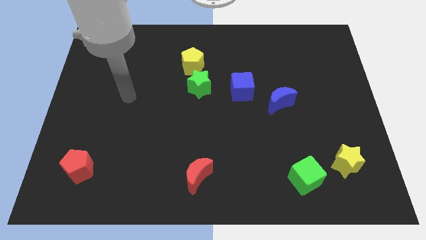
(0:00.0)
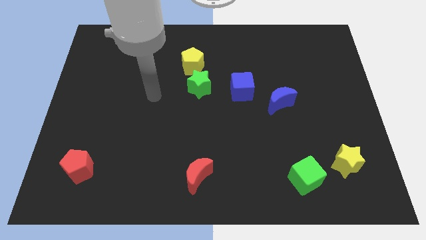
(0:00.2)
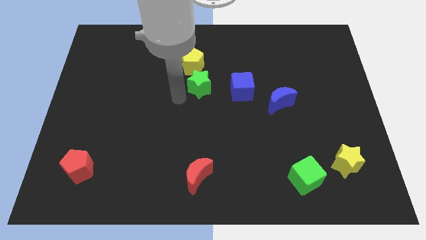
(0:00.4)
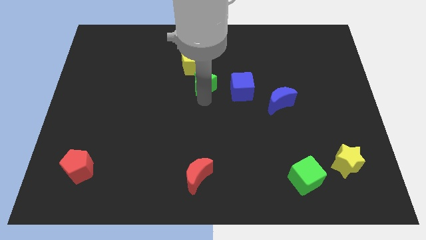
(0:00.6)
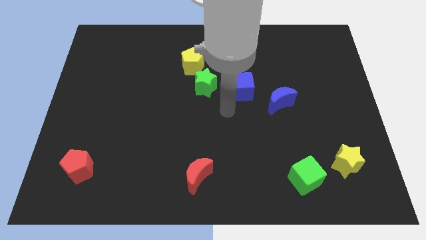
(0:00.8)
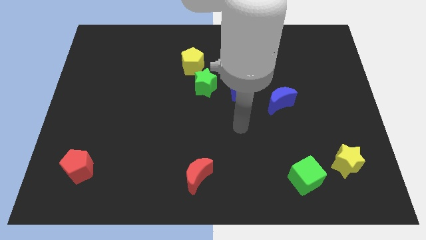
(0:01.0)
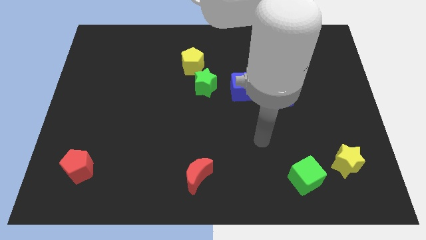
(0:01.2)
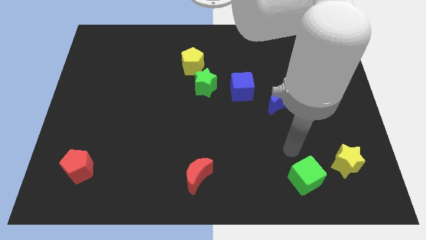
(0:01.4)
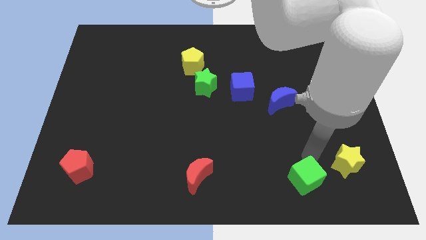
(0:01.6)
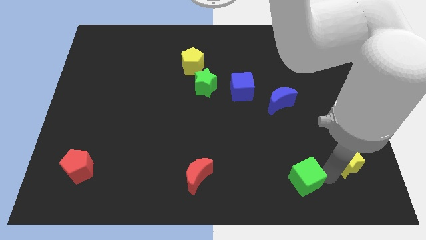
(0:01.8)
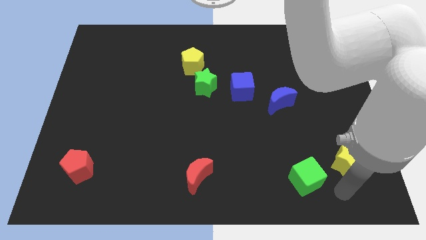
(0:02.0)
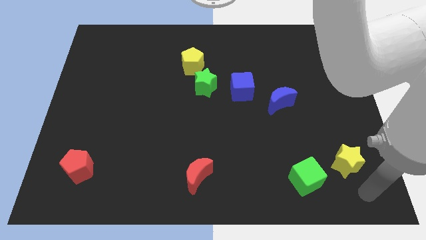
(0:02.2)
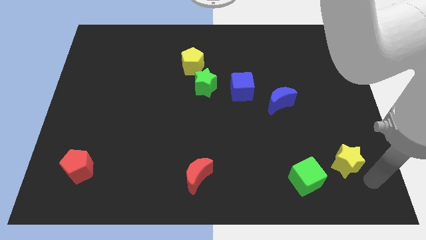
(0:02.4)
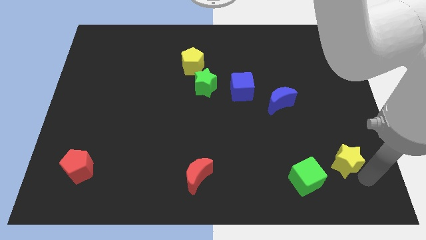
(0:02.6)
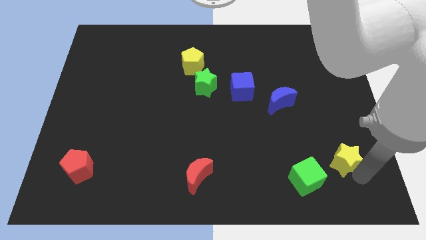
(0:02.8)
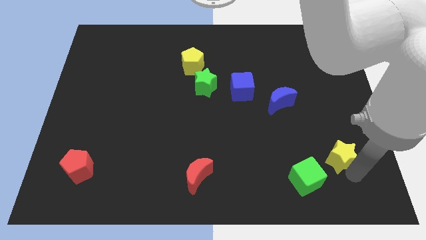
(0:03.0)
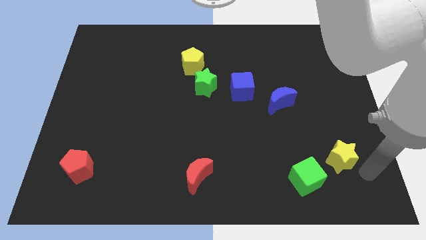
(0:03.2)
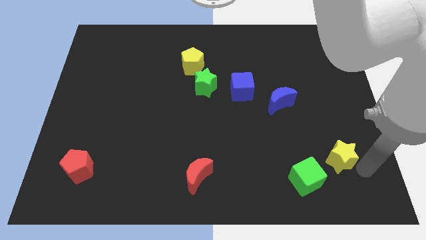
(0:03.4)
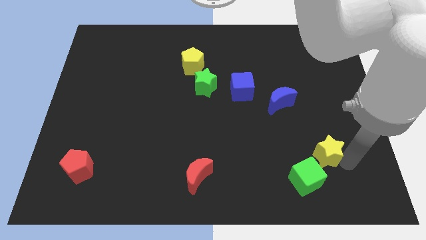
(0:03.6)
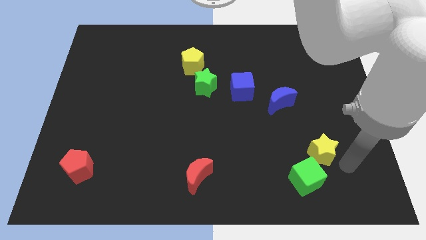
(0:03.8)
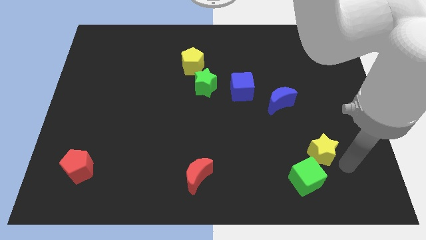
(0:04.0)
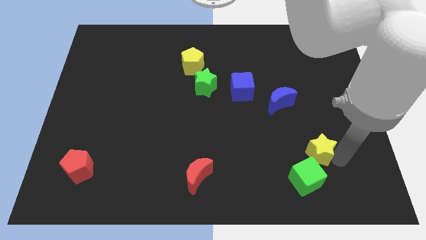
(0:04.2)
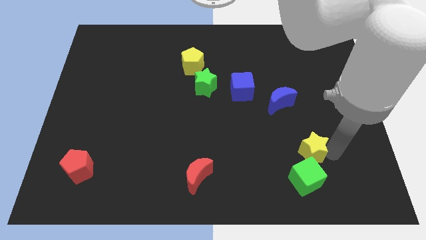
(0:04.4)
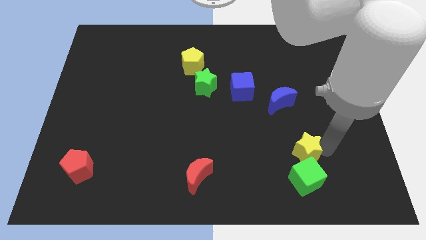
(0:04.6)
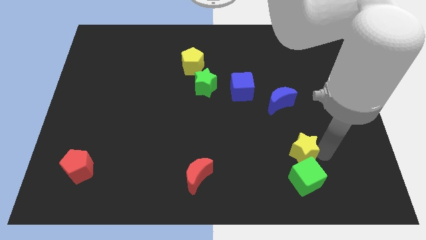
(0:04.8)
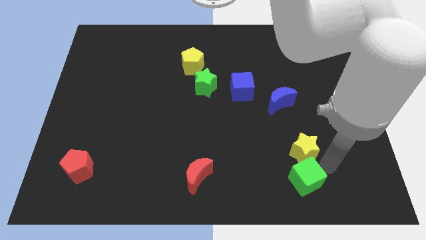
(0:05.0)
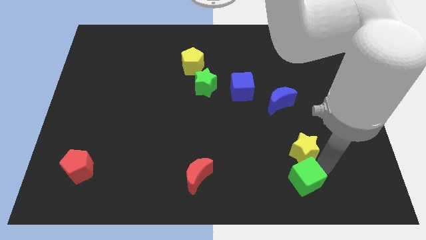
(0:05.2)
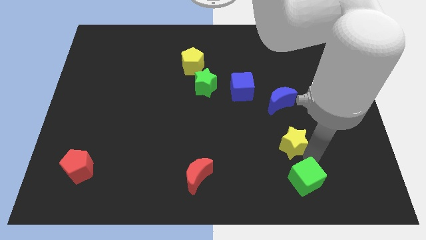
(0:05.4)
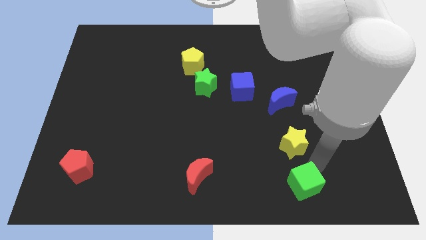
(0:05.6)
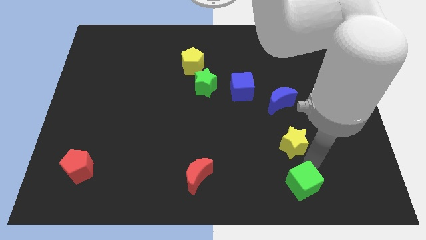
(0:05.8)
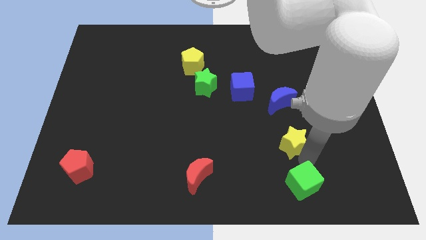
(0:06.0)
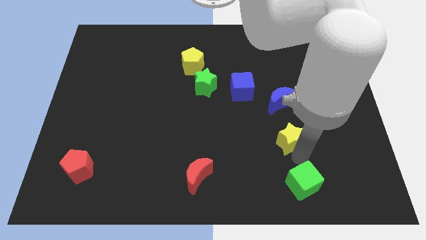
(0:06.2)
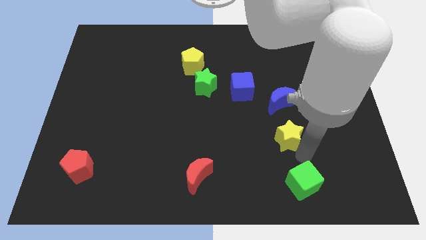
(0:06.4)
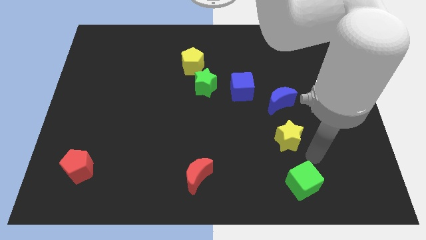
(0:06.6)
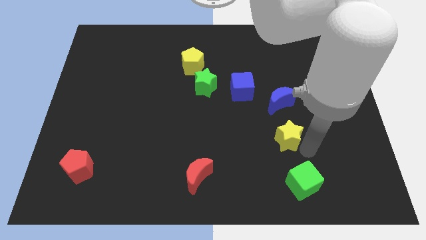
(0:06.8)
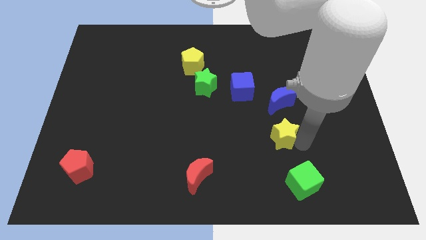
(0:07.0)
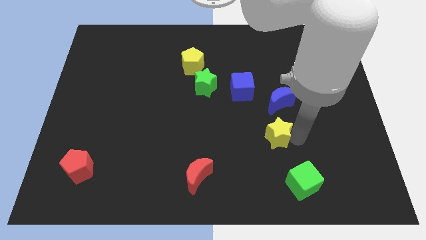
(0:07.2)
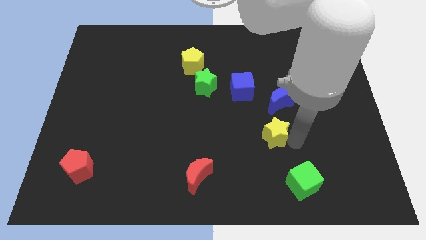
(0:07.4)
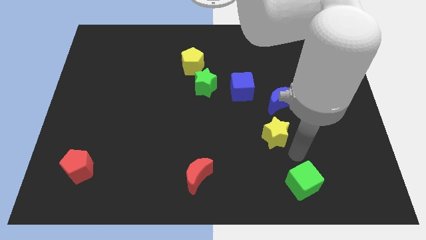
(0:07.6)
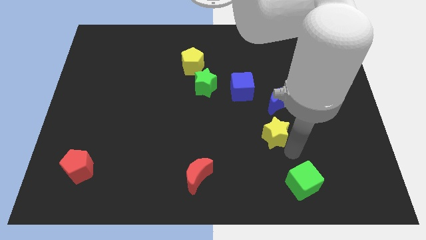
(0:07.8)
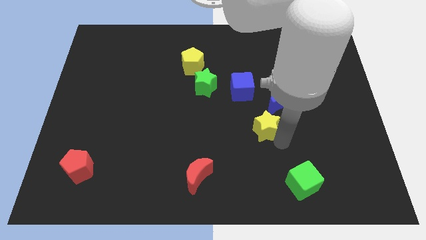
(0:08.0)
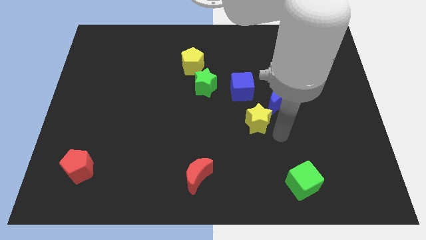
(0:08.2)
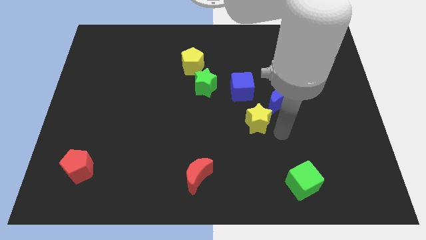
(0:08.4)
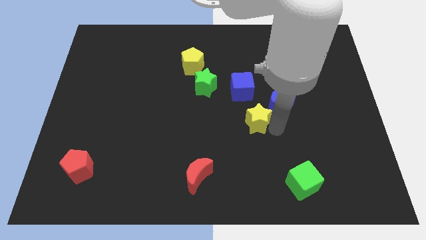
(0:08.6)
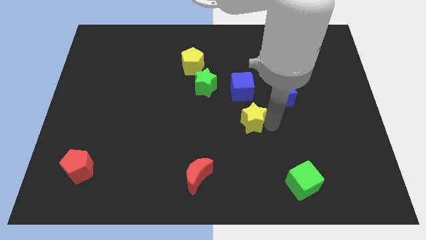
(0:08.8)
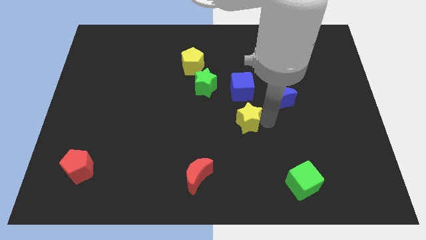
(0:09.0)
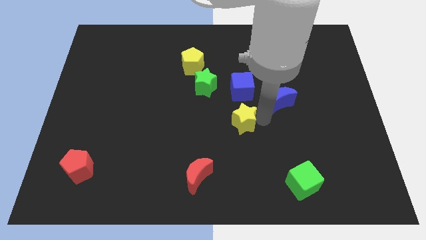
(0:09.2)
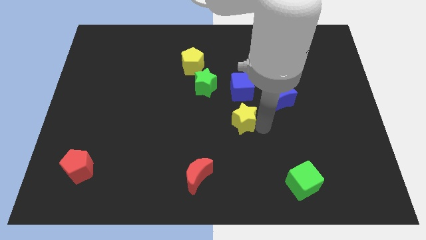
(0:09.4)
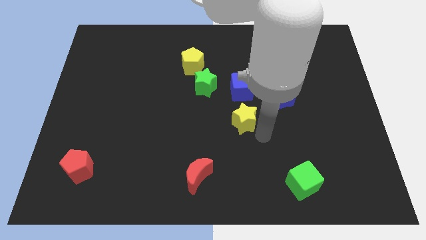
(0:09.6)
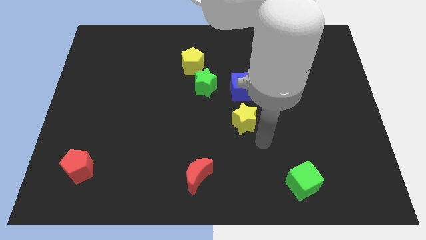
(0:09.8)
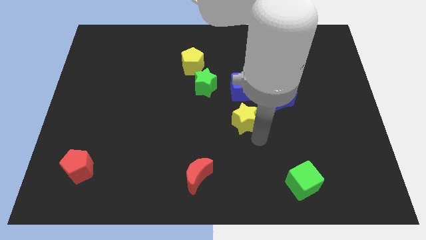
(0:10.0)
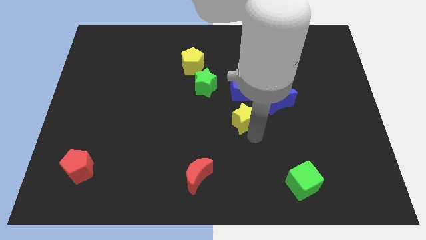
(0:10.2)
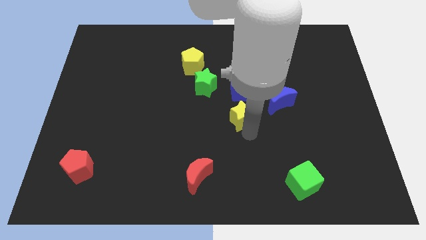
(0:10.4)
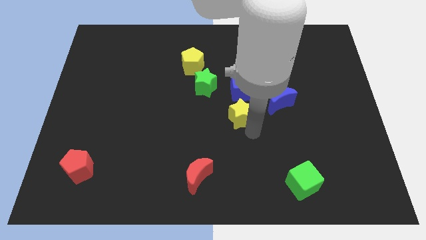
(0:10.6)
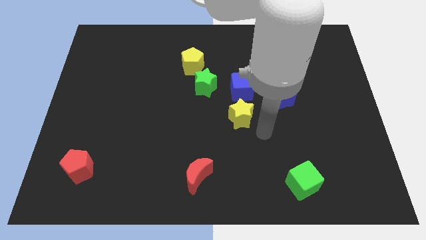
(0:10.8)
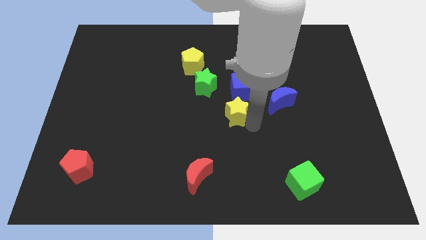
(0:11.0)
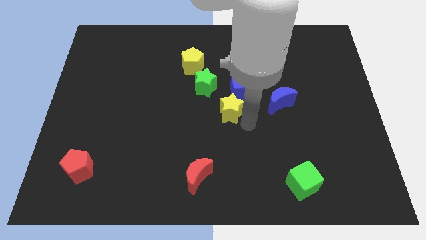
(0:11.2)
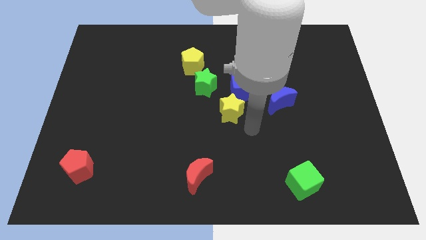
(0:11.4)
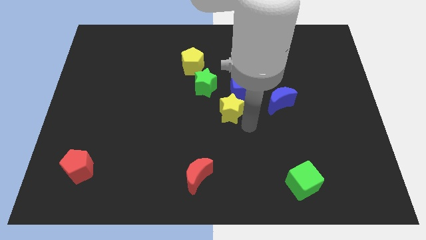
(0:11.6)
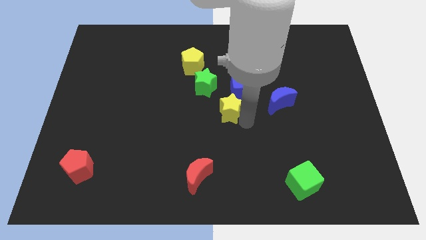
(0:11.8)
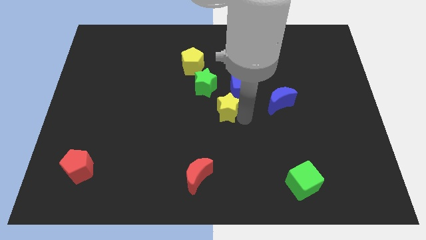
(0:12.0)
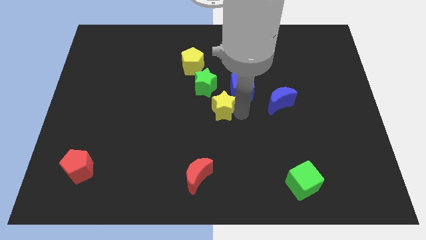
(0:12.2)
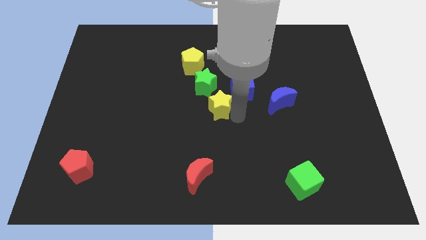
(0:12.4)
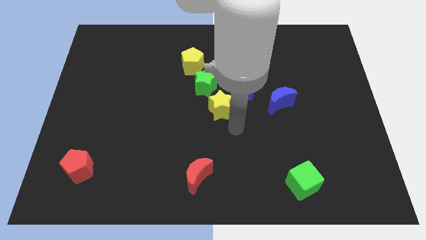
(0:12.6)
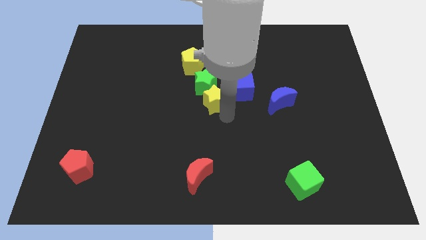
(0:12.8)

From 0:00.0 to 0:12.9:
put the yellow star towards the green star

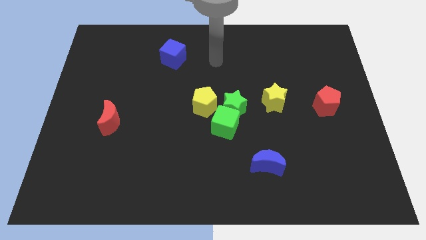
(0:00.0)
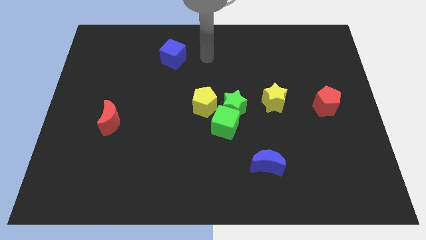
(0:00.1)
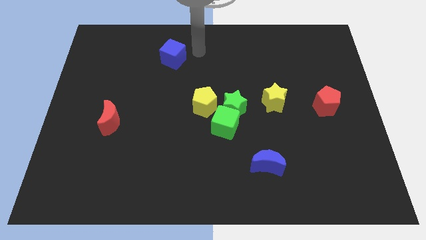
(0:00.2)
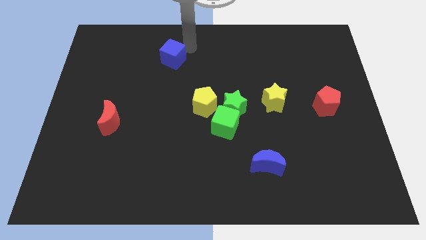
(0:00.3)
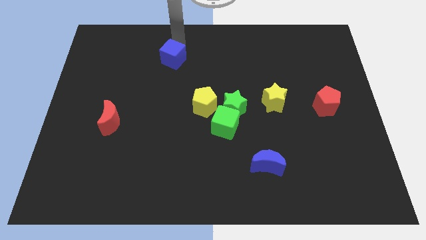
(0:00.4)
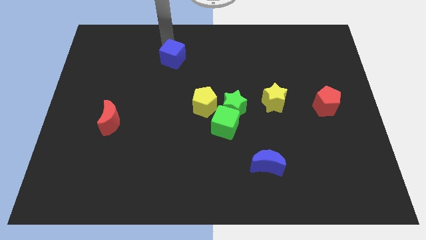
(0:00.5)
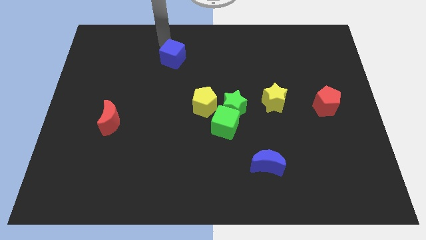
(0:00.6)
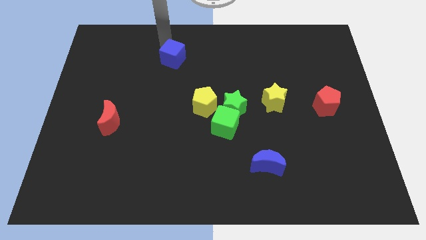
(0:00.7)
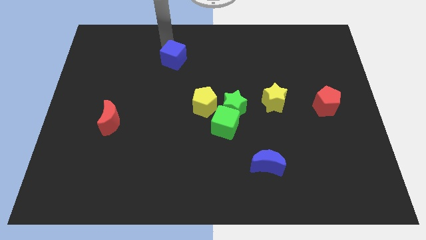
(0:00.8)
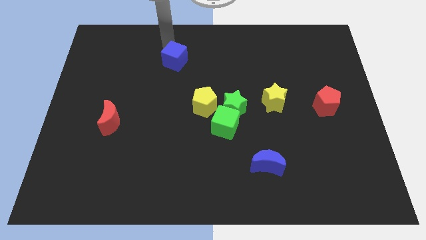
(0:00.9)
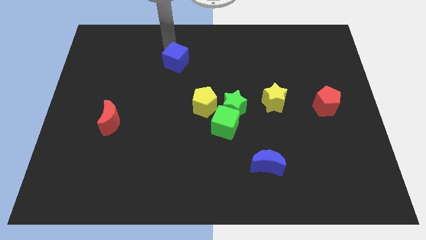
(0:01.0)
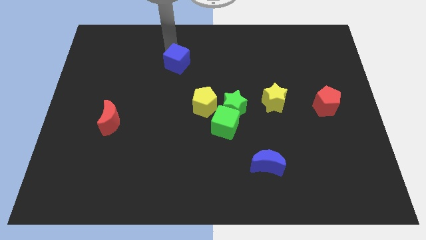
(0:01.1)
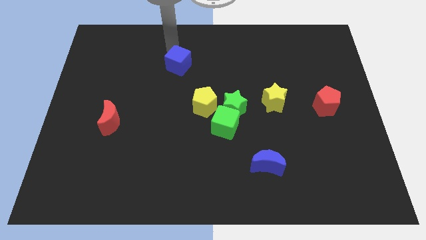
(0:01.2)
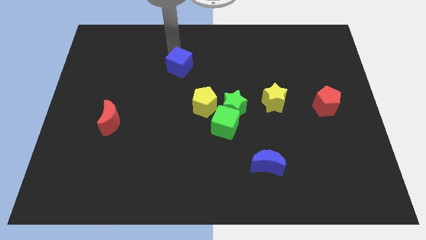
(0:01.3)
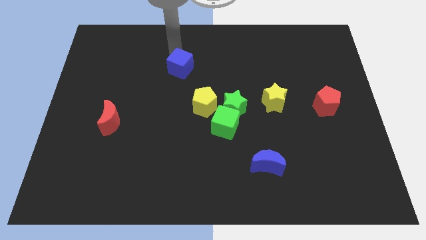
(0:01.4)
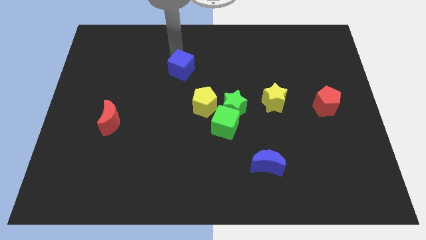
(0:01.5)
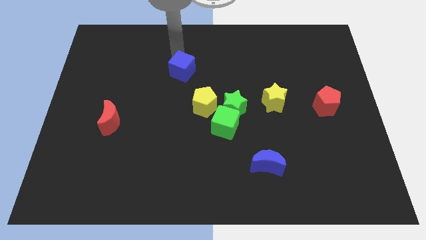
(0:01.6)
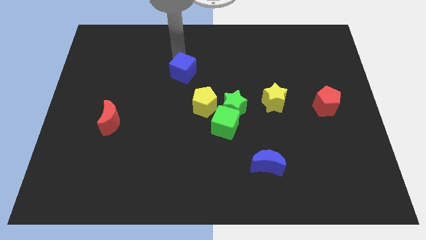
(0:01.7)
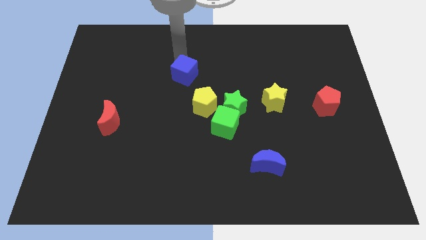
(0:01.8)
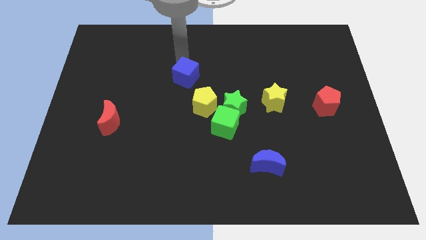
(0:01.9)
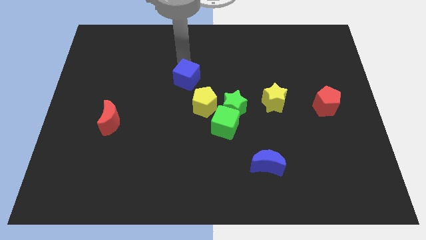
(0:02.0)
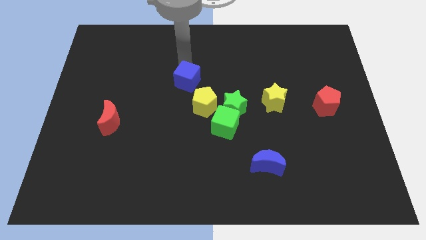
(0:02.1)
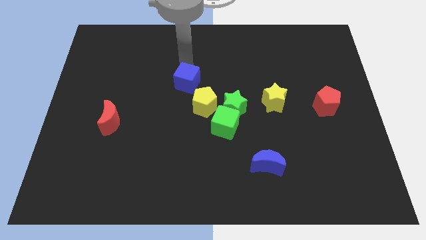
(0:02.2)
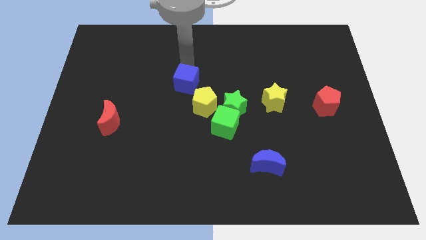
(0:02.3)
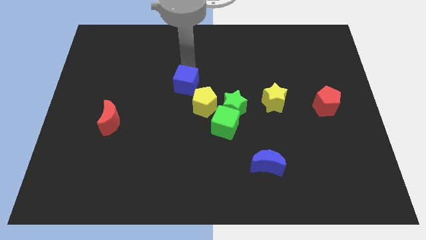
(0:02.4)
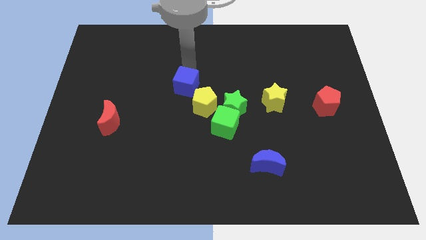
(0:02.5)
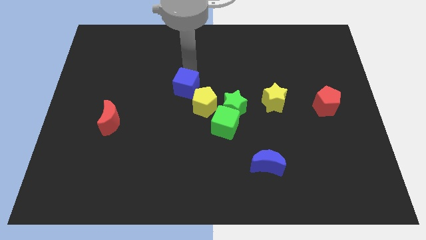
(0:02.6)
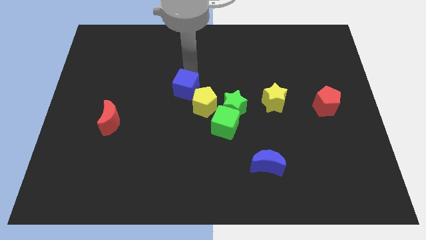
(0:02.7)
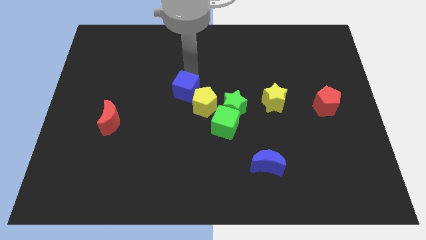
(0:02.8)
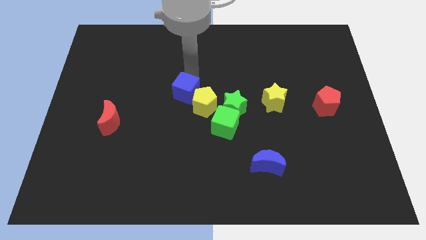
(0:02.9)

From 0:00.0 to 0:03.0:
push the blue cube towards the yellow pentagon
